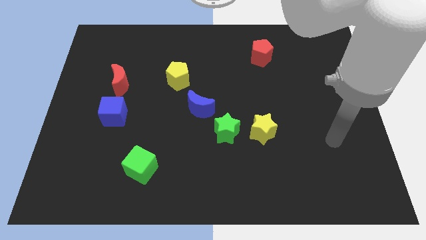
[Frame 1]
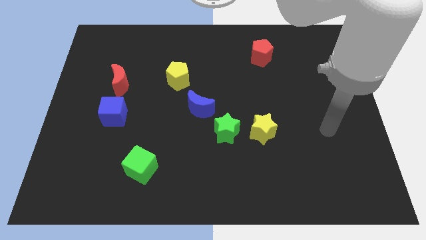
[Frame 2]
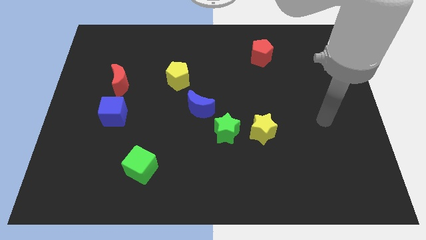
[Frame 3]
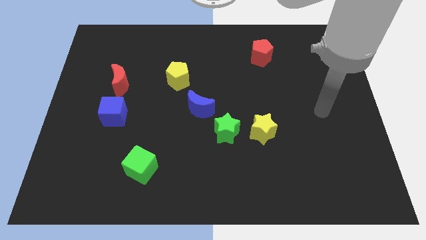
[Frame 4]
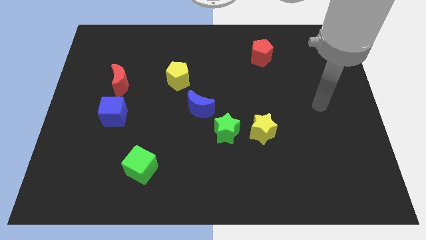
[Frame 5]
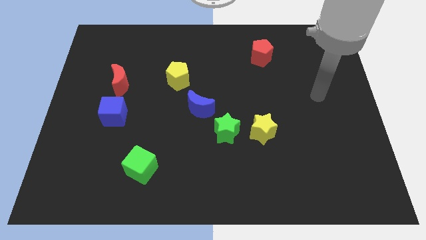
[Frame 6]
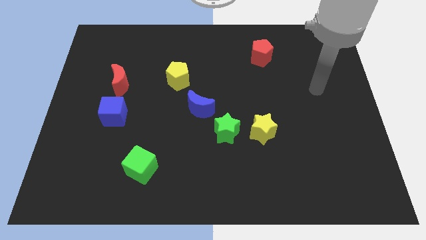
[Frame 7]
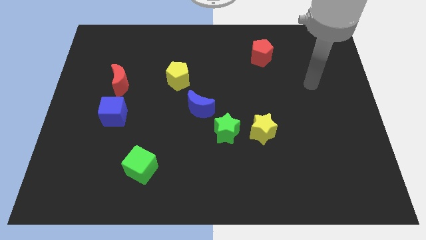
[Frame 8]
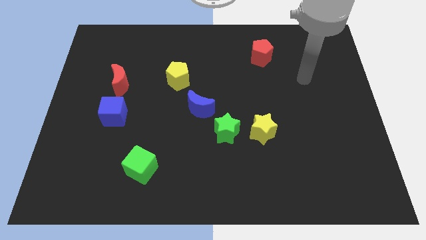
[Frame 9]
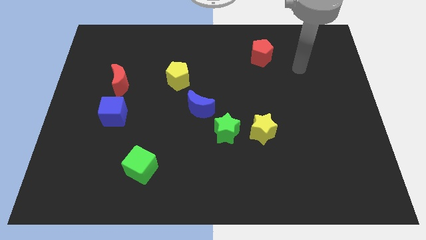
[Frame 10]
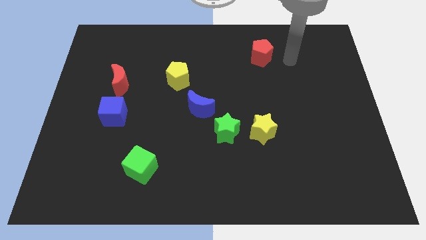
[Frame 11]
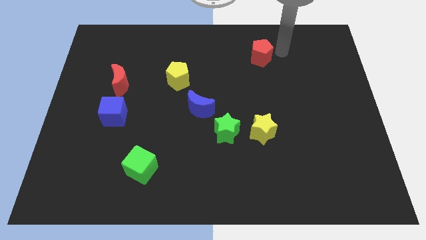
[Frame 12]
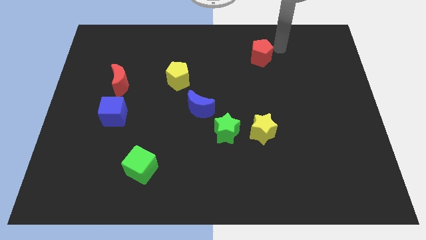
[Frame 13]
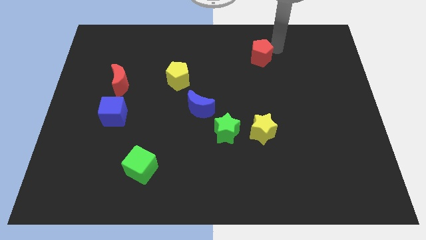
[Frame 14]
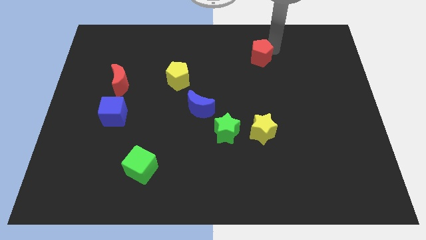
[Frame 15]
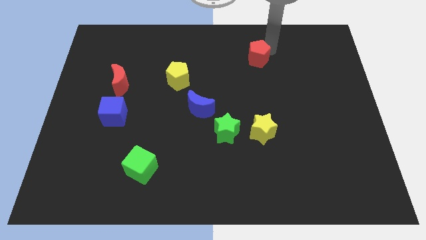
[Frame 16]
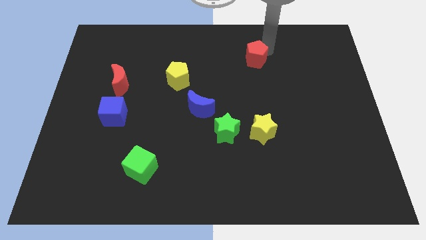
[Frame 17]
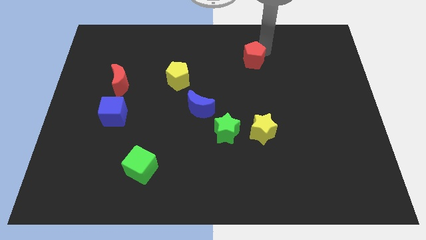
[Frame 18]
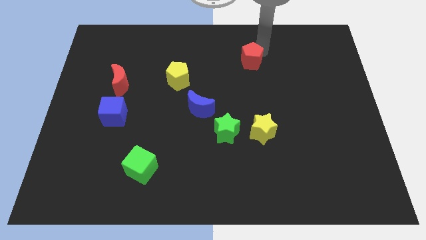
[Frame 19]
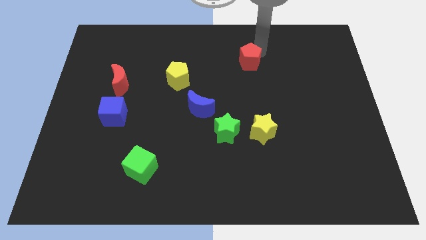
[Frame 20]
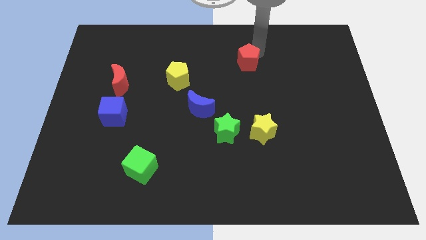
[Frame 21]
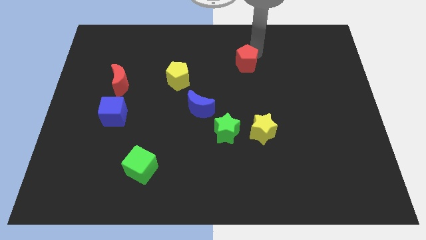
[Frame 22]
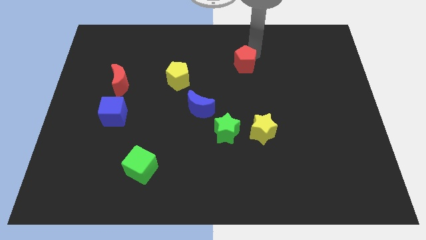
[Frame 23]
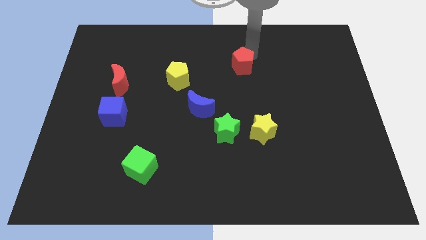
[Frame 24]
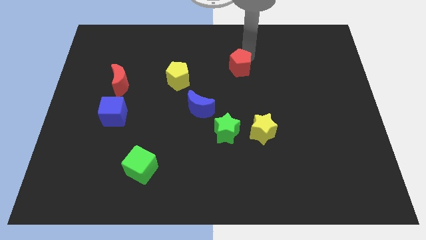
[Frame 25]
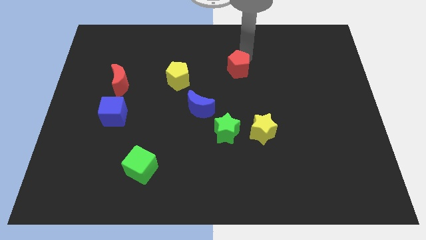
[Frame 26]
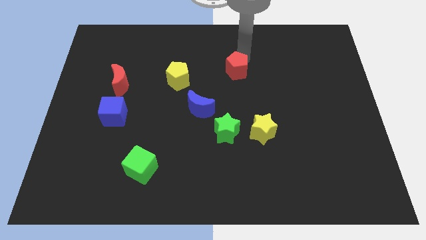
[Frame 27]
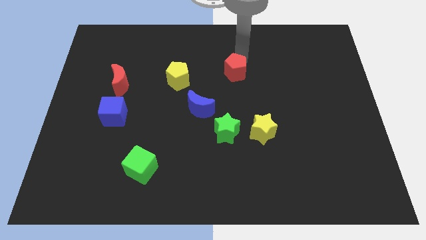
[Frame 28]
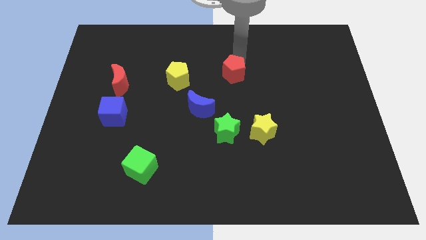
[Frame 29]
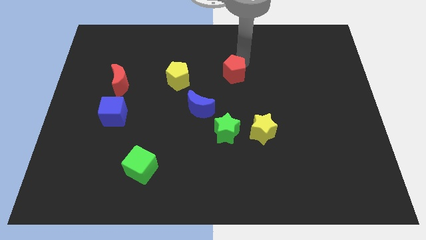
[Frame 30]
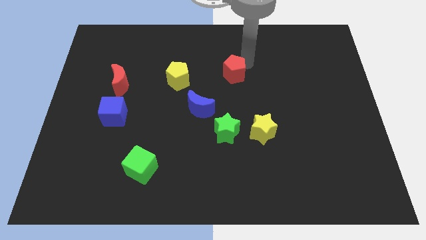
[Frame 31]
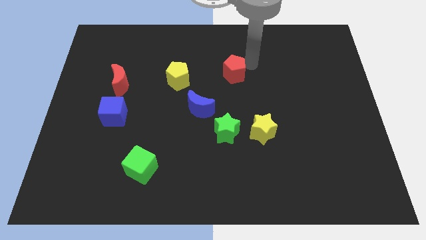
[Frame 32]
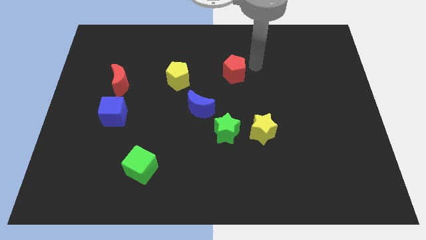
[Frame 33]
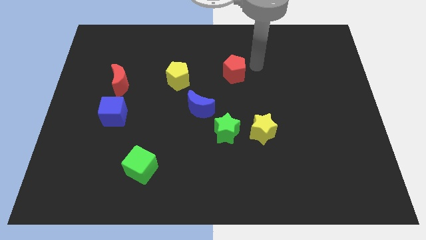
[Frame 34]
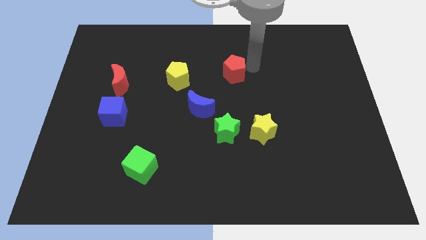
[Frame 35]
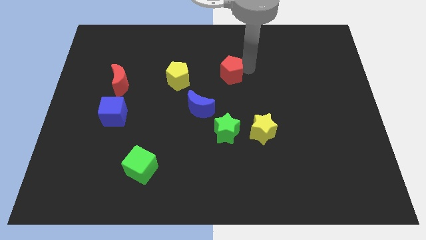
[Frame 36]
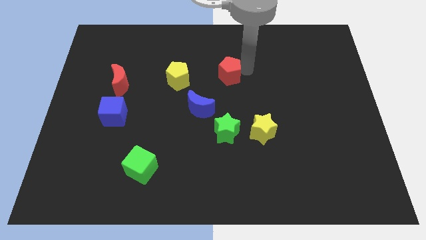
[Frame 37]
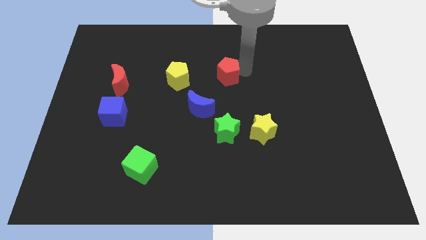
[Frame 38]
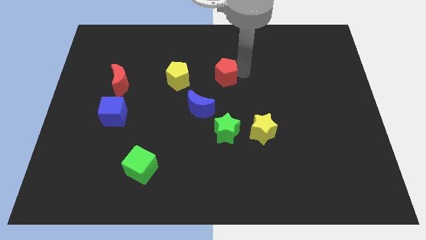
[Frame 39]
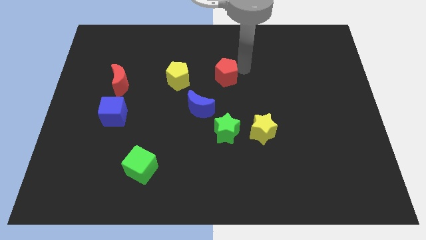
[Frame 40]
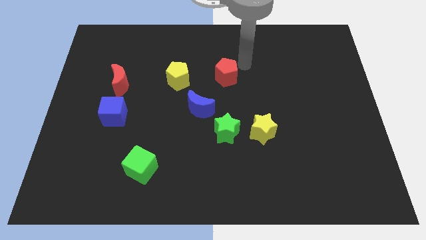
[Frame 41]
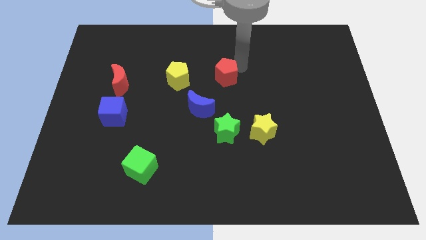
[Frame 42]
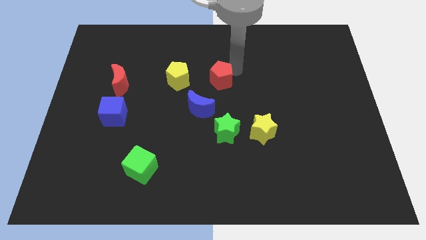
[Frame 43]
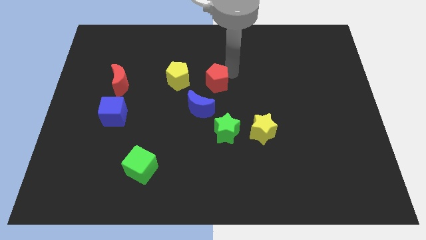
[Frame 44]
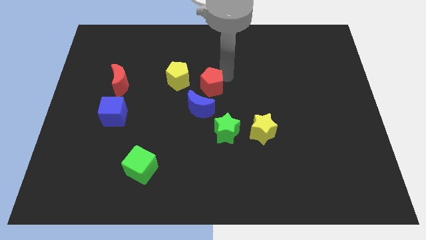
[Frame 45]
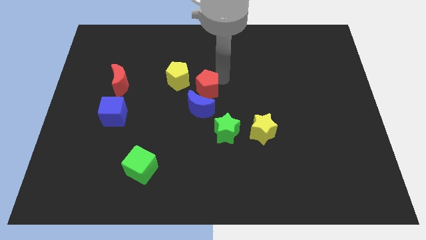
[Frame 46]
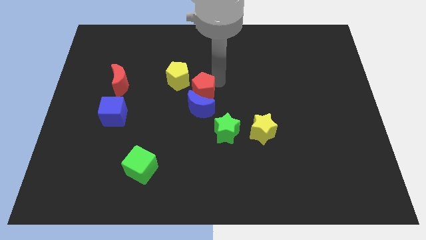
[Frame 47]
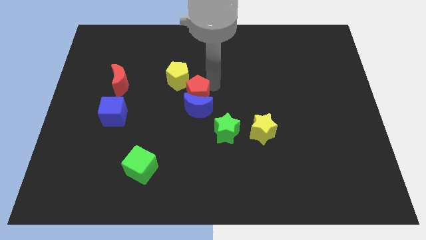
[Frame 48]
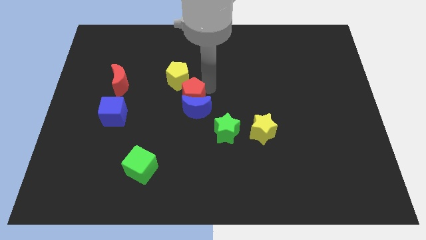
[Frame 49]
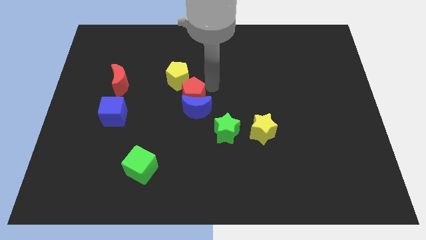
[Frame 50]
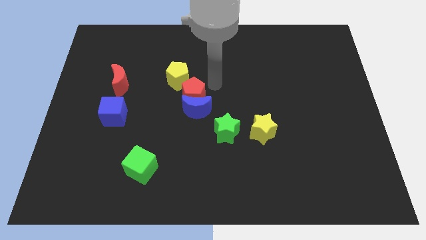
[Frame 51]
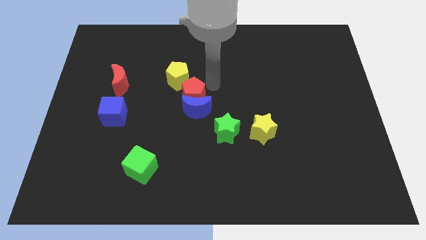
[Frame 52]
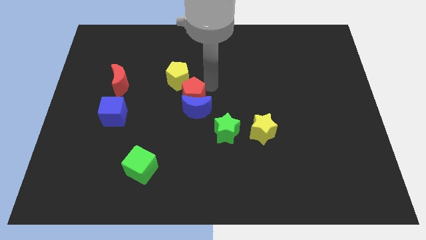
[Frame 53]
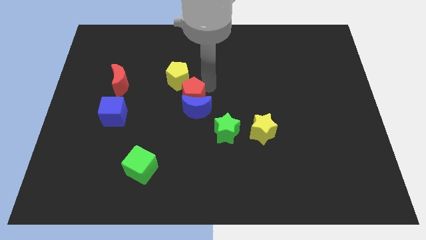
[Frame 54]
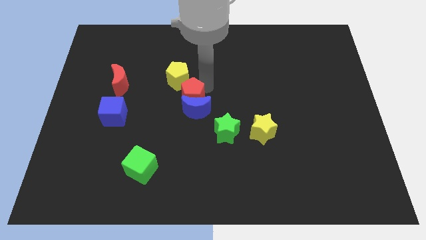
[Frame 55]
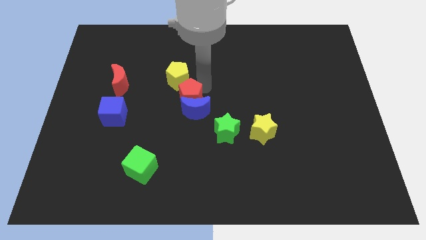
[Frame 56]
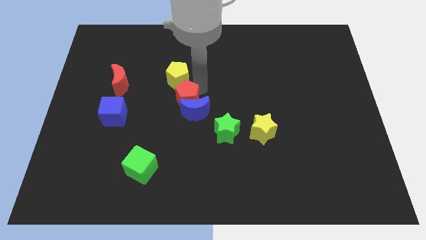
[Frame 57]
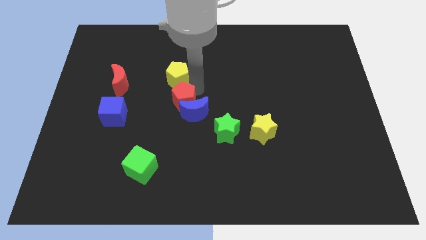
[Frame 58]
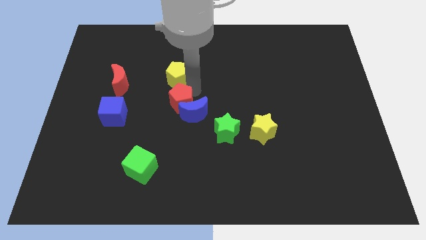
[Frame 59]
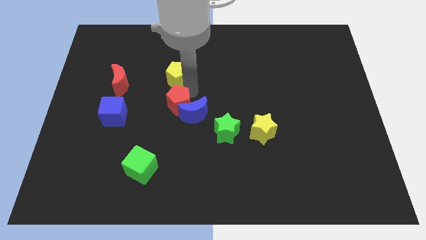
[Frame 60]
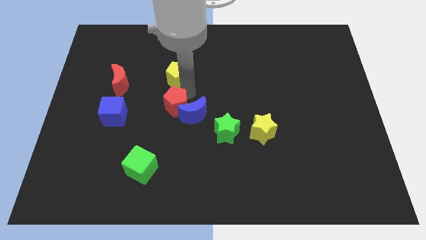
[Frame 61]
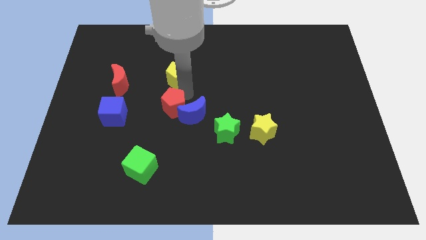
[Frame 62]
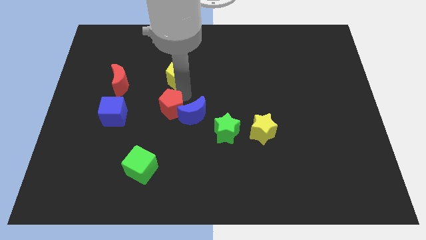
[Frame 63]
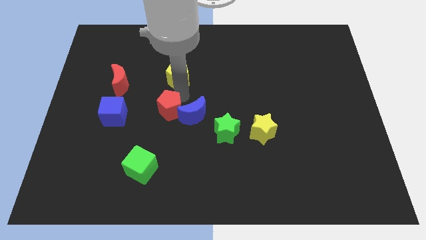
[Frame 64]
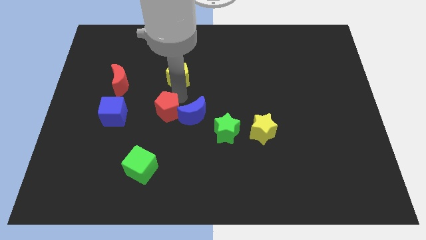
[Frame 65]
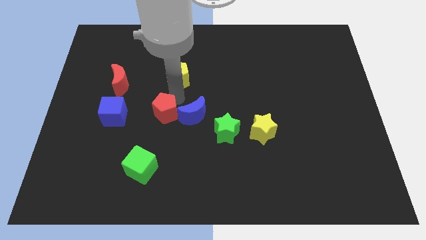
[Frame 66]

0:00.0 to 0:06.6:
push the red pentagon to the top of the green cube

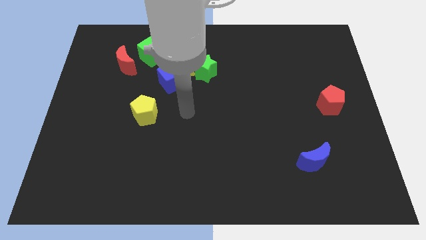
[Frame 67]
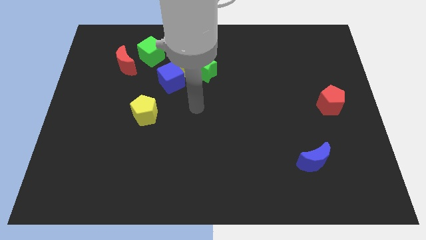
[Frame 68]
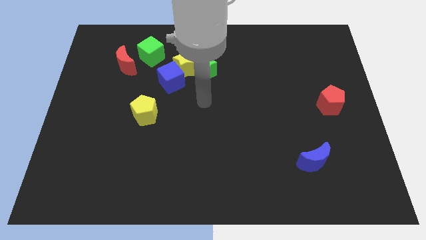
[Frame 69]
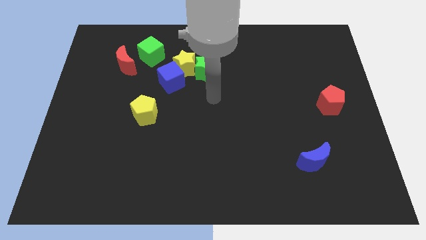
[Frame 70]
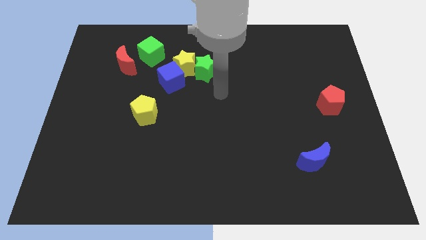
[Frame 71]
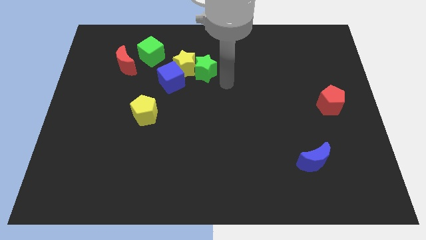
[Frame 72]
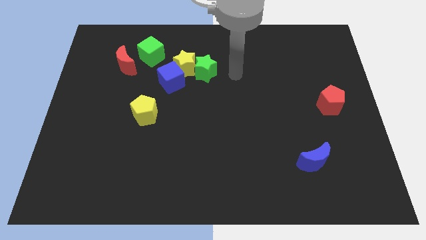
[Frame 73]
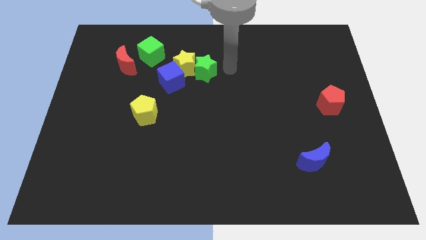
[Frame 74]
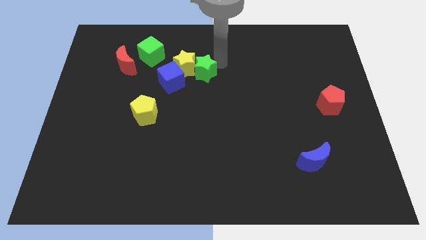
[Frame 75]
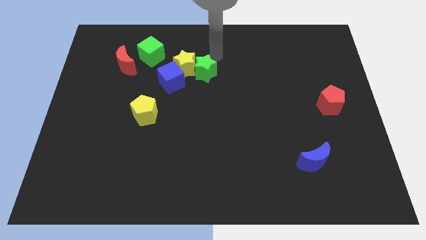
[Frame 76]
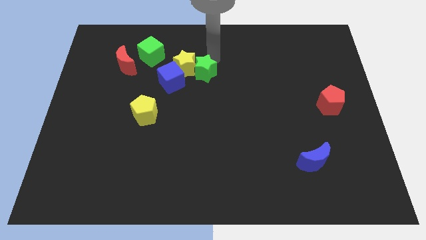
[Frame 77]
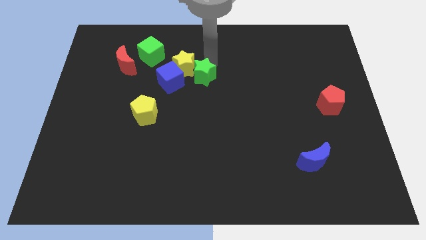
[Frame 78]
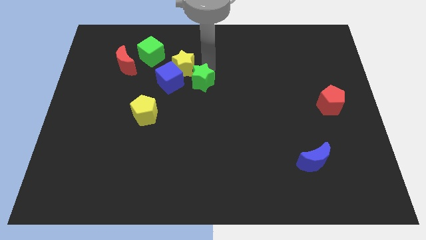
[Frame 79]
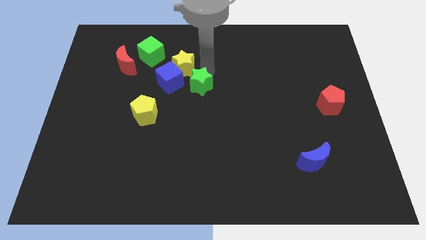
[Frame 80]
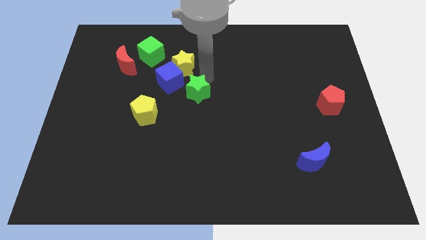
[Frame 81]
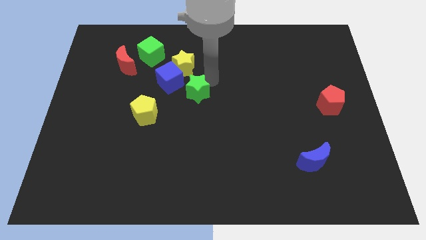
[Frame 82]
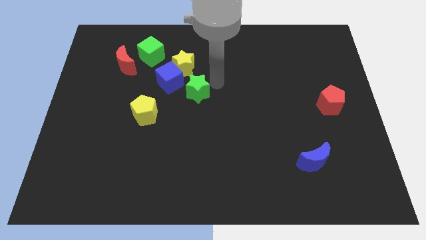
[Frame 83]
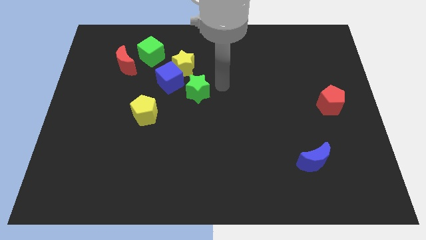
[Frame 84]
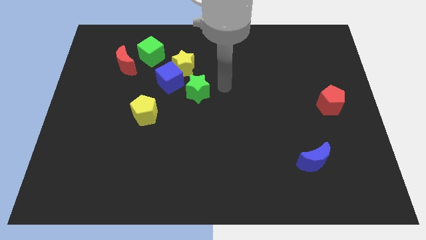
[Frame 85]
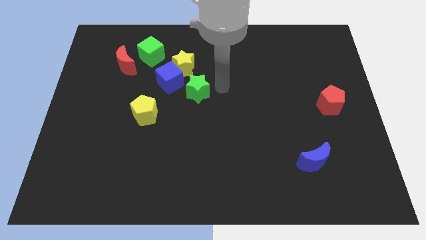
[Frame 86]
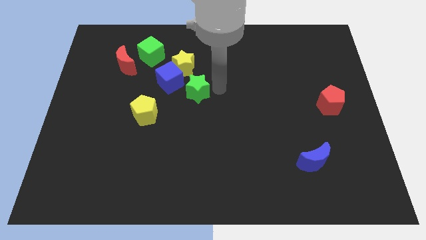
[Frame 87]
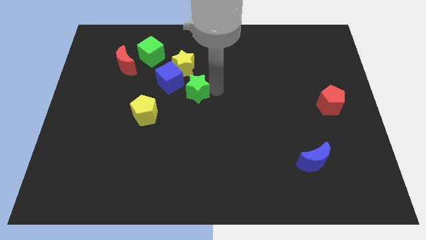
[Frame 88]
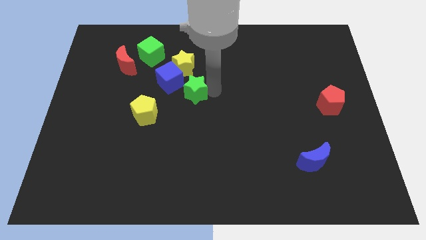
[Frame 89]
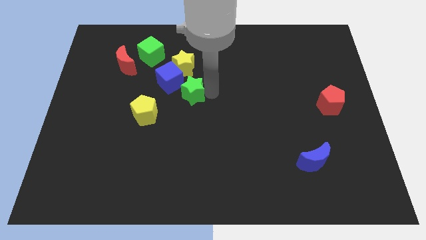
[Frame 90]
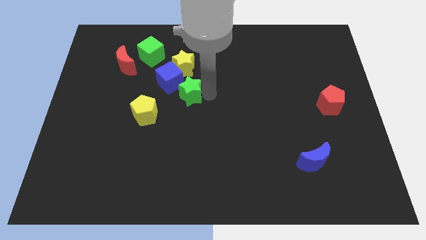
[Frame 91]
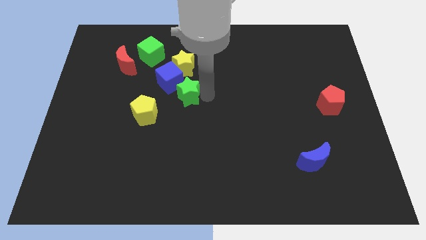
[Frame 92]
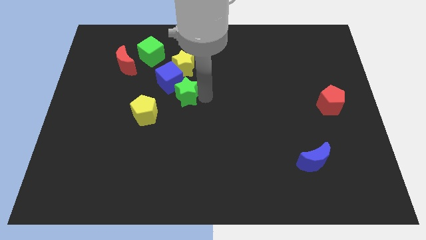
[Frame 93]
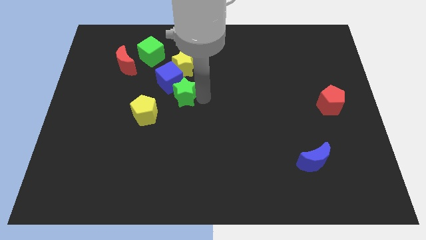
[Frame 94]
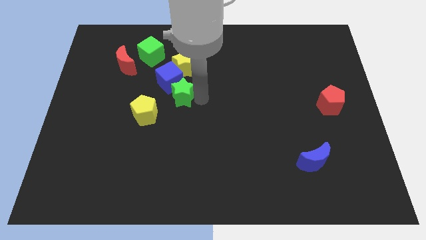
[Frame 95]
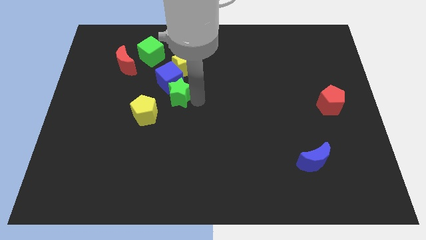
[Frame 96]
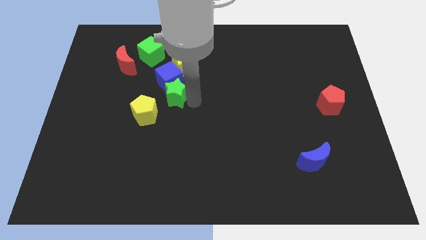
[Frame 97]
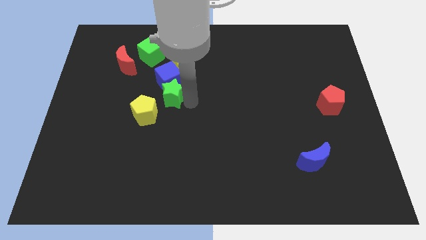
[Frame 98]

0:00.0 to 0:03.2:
slide the green star to the bottom left of the blue cube
